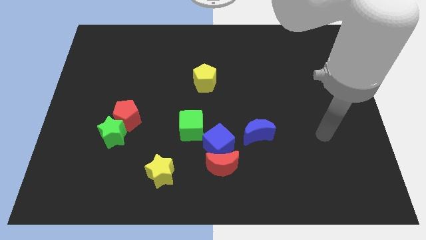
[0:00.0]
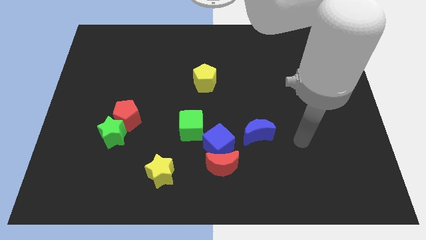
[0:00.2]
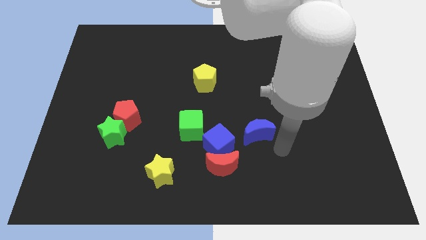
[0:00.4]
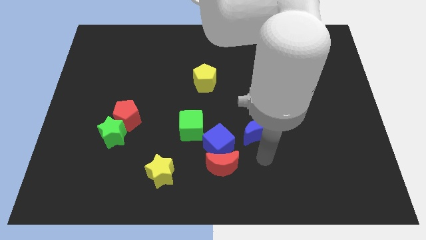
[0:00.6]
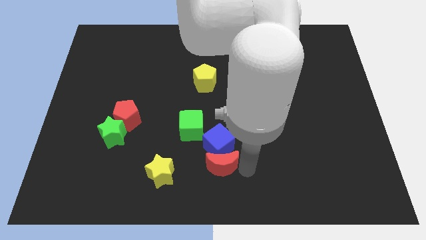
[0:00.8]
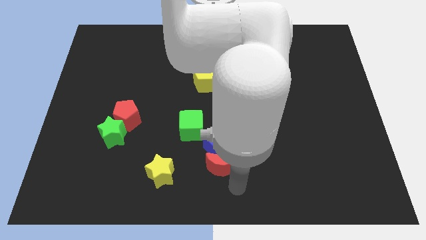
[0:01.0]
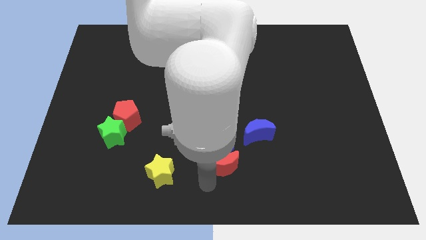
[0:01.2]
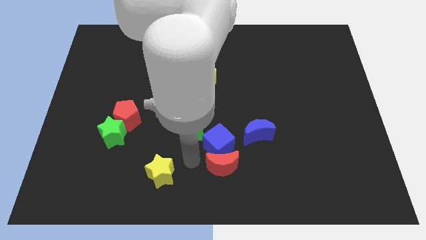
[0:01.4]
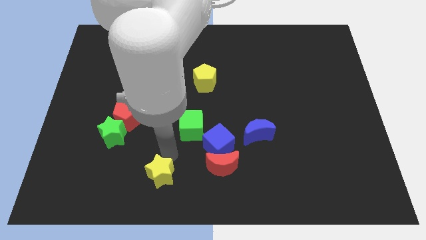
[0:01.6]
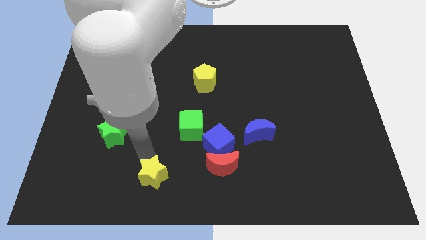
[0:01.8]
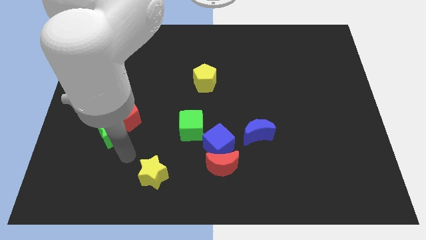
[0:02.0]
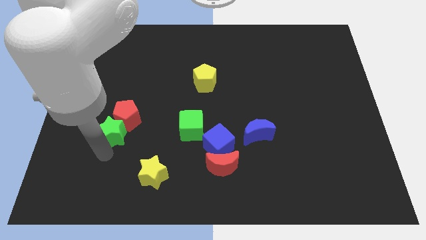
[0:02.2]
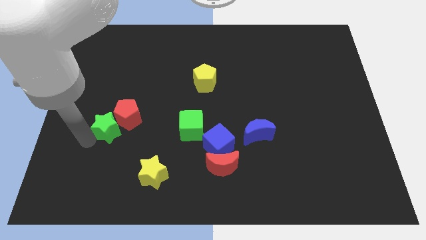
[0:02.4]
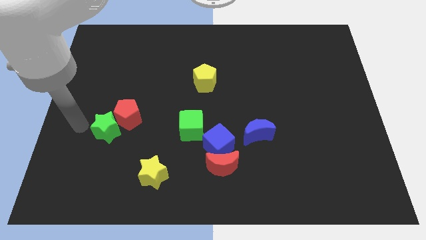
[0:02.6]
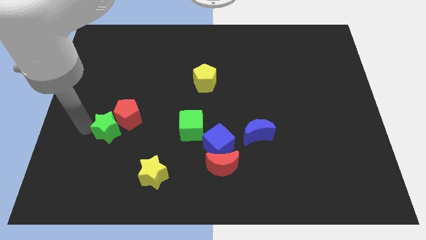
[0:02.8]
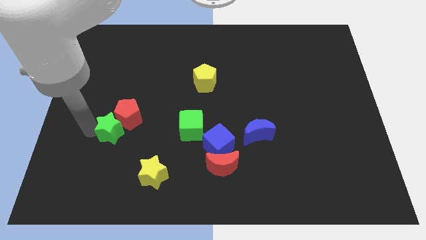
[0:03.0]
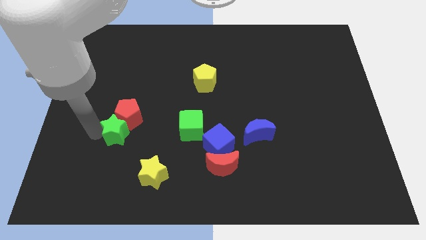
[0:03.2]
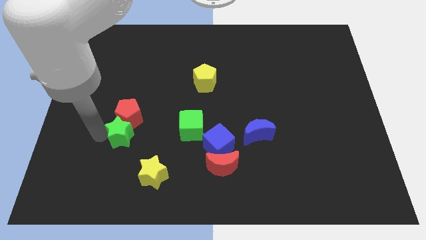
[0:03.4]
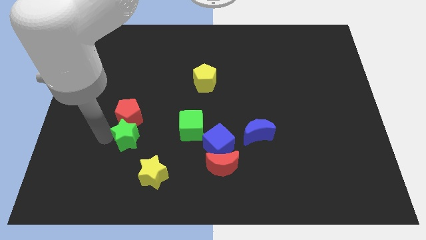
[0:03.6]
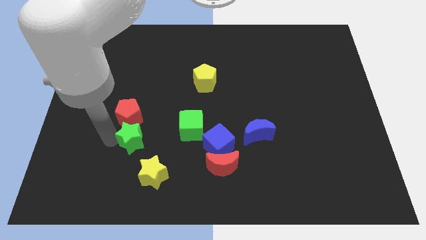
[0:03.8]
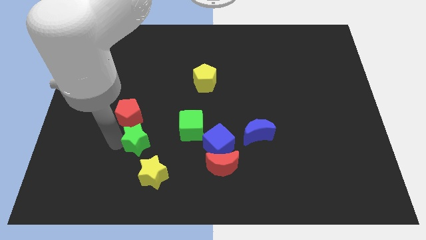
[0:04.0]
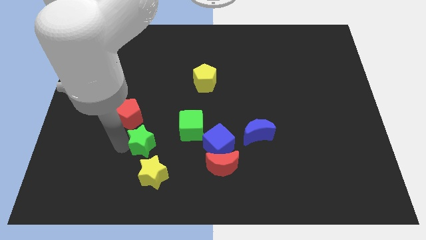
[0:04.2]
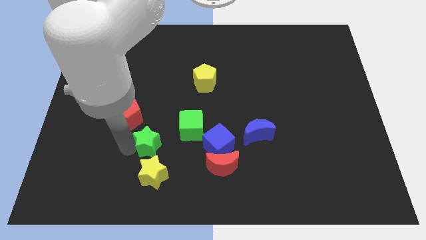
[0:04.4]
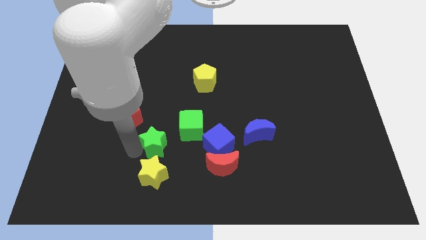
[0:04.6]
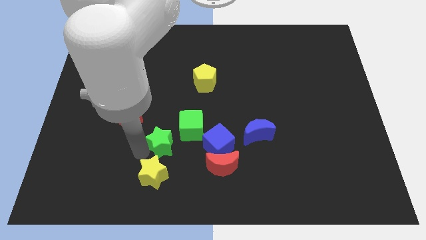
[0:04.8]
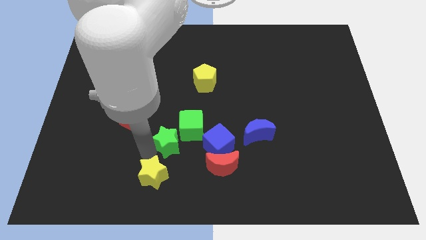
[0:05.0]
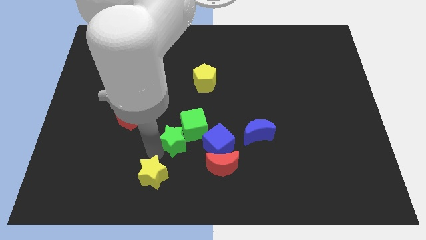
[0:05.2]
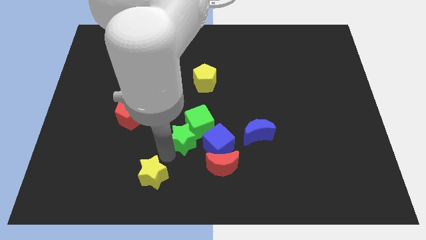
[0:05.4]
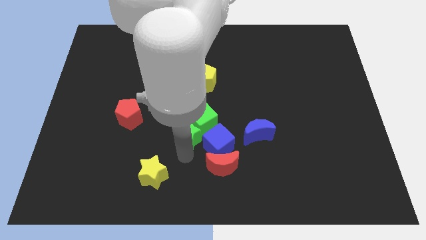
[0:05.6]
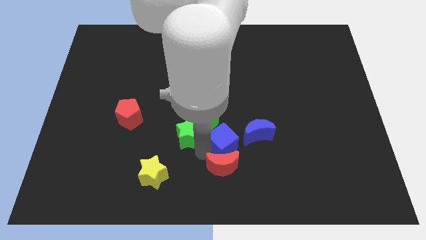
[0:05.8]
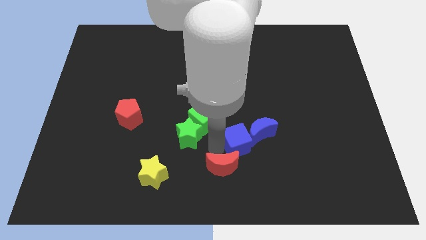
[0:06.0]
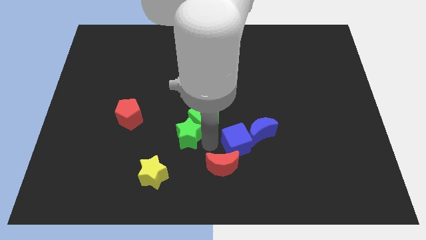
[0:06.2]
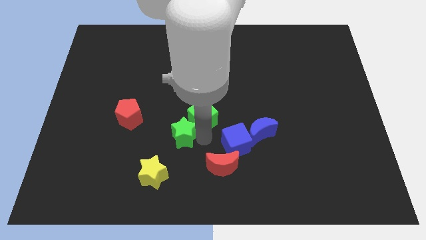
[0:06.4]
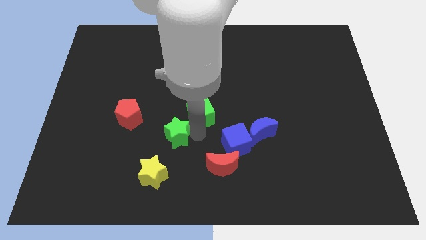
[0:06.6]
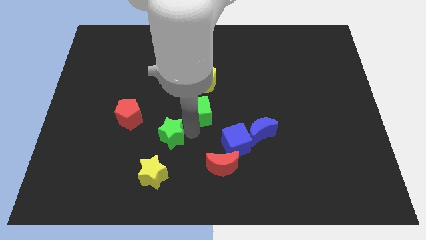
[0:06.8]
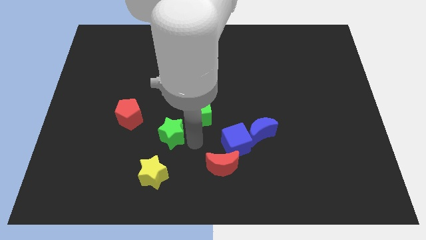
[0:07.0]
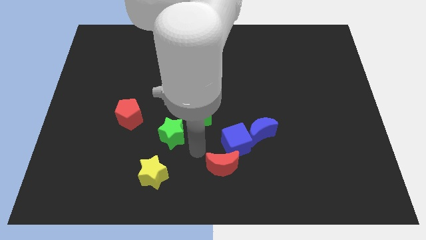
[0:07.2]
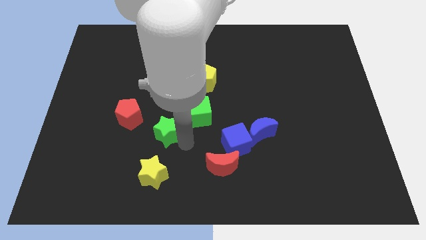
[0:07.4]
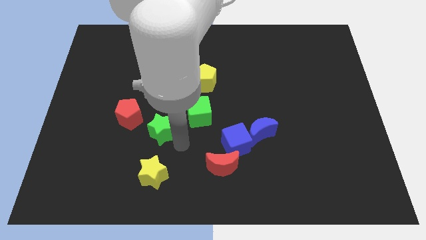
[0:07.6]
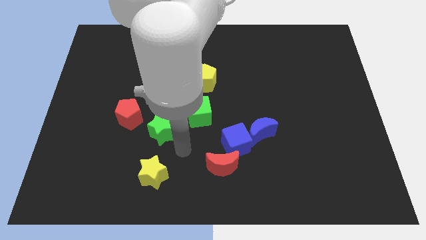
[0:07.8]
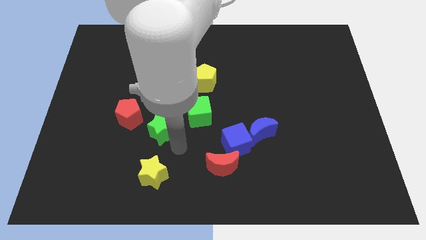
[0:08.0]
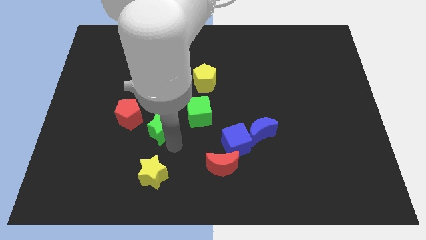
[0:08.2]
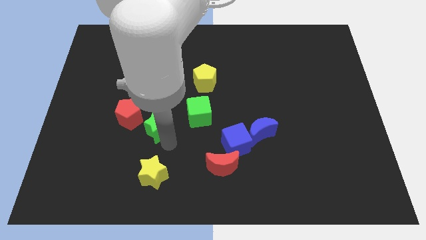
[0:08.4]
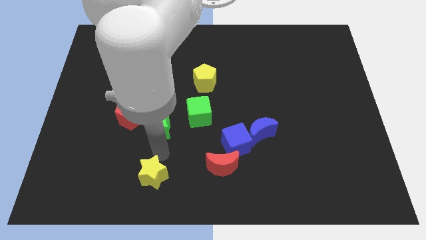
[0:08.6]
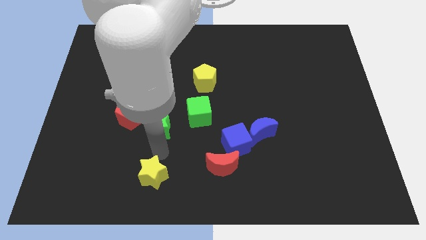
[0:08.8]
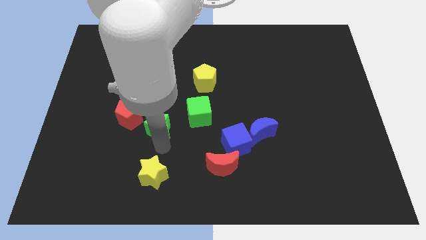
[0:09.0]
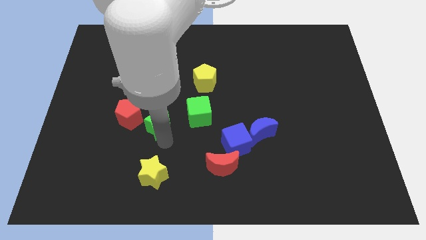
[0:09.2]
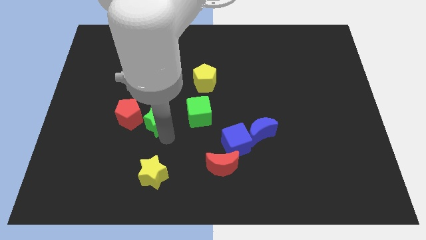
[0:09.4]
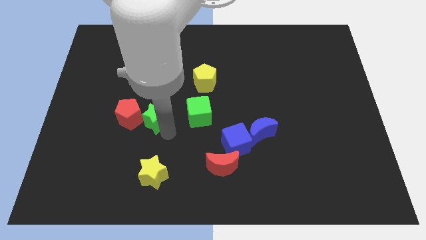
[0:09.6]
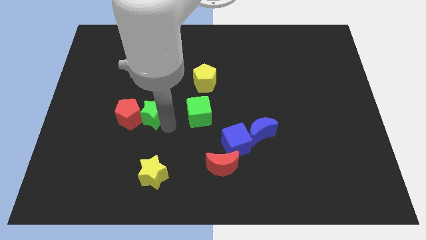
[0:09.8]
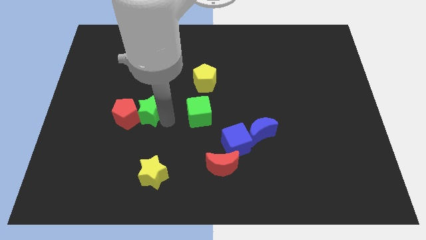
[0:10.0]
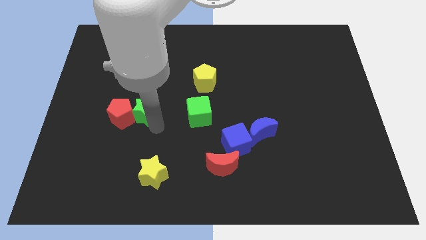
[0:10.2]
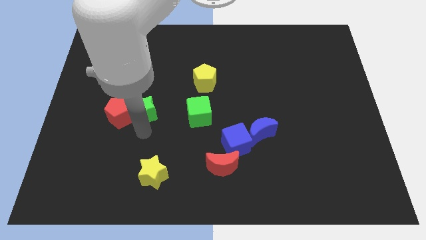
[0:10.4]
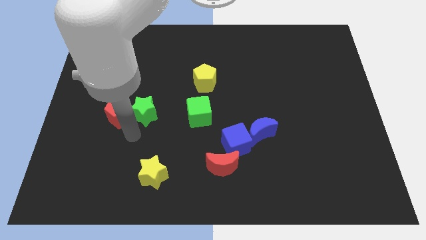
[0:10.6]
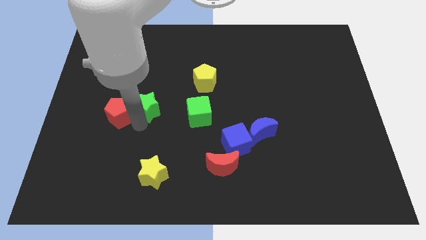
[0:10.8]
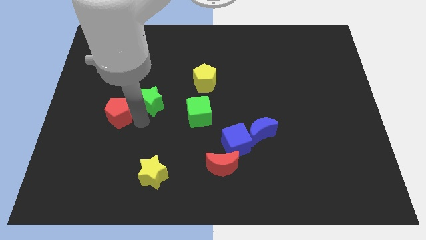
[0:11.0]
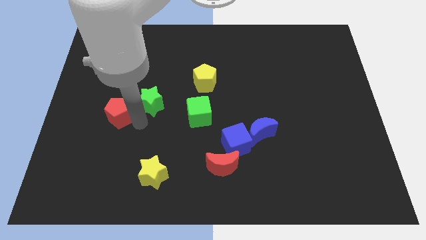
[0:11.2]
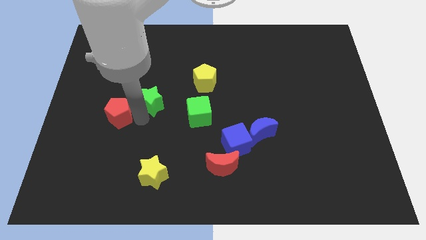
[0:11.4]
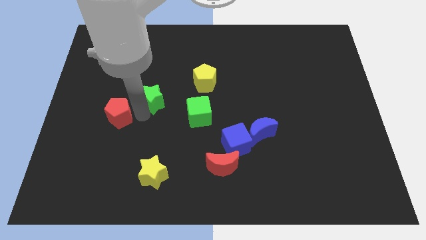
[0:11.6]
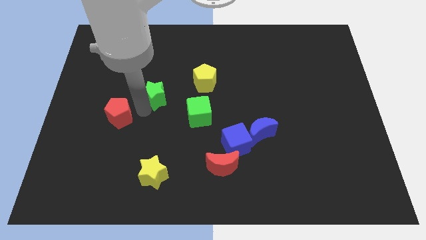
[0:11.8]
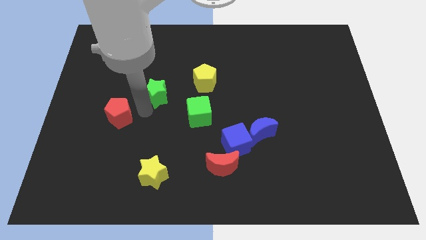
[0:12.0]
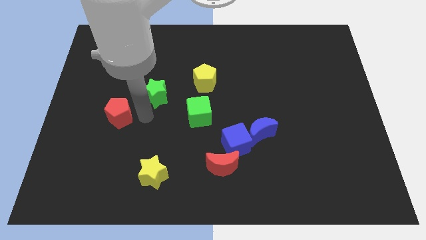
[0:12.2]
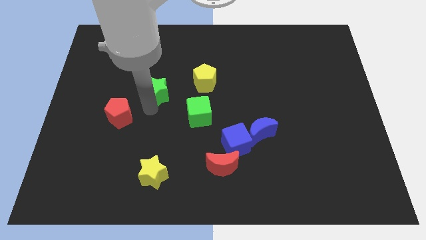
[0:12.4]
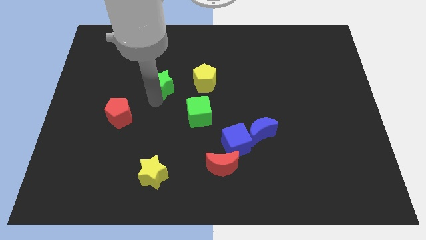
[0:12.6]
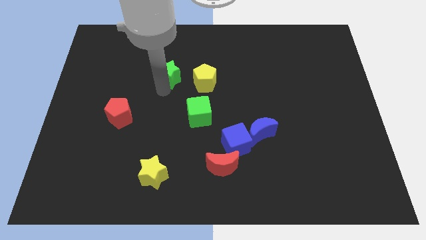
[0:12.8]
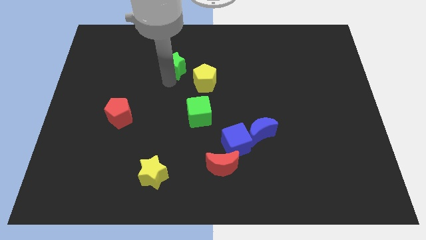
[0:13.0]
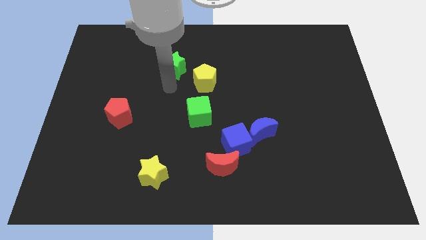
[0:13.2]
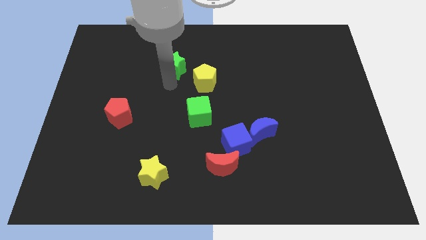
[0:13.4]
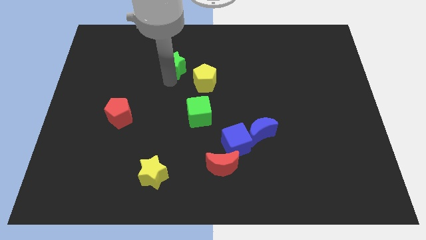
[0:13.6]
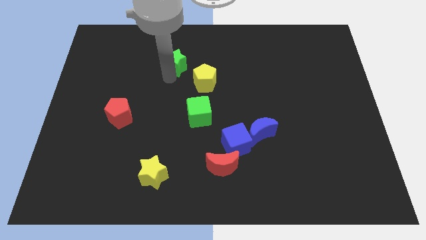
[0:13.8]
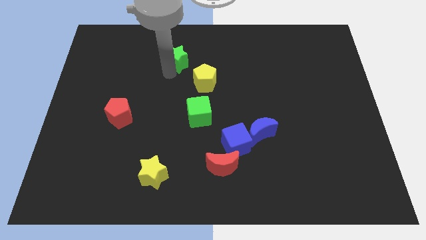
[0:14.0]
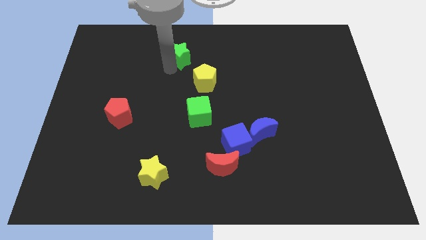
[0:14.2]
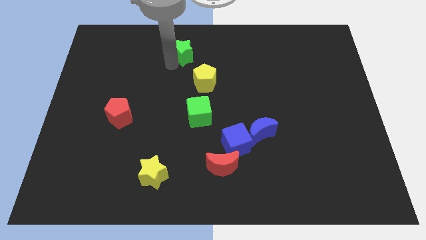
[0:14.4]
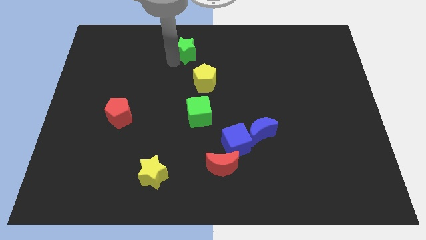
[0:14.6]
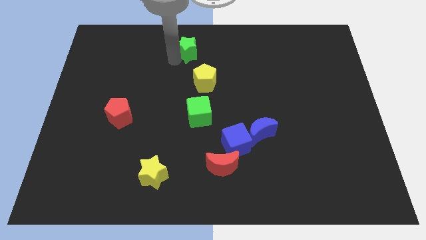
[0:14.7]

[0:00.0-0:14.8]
put the green star to the top
